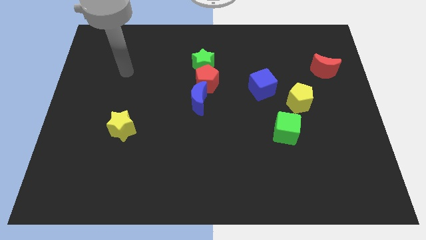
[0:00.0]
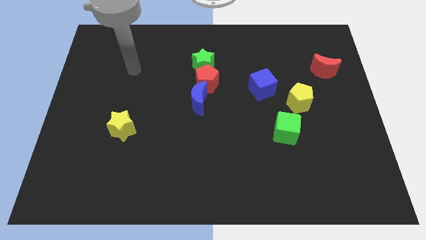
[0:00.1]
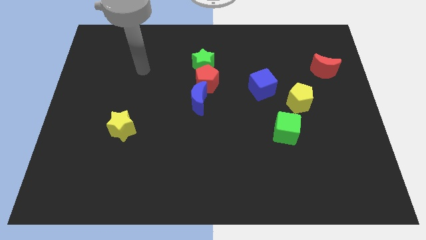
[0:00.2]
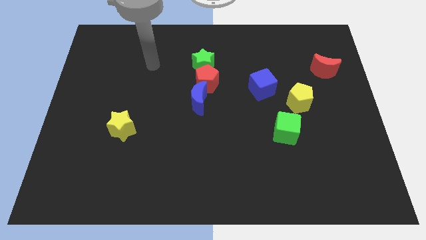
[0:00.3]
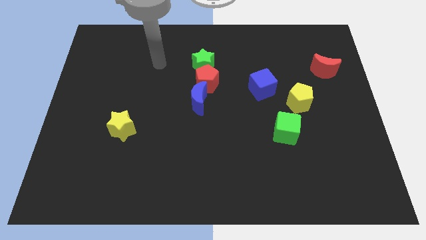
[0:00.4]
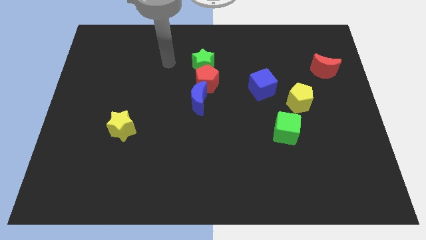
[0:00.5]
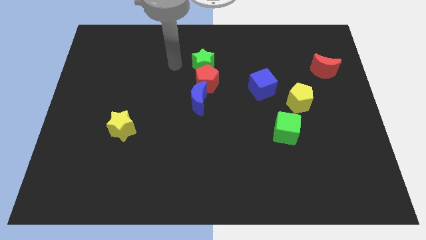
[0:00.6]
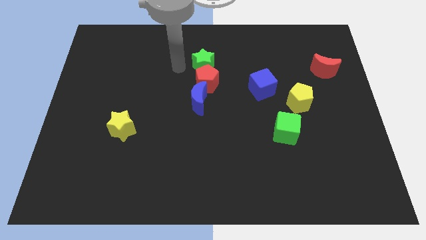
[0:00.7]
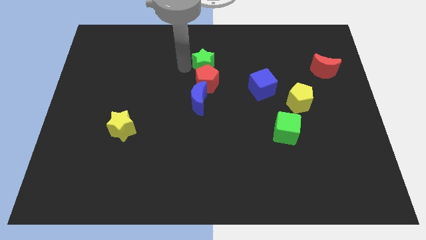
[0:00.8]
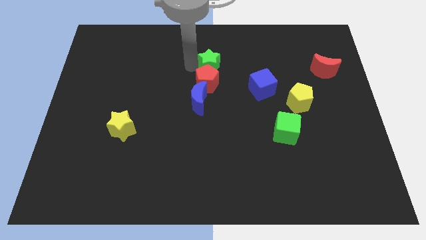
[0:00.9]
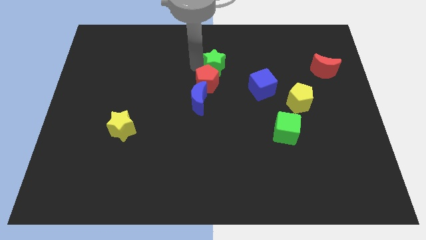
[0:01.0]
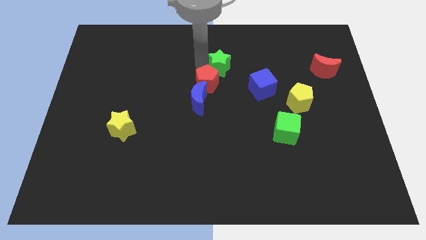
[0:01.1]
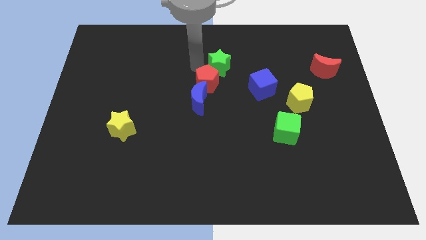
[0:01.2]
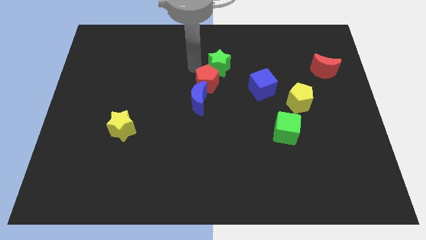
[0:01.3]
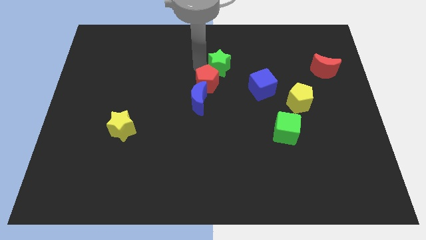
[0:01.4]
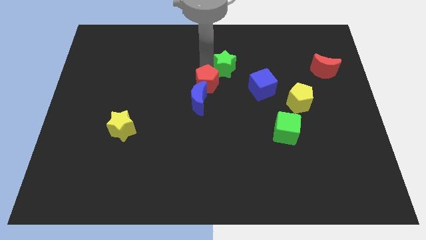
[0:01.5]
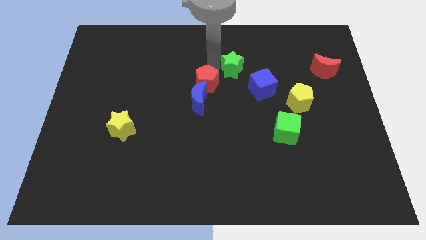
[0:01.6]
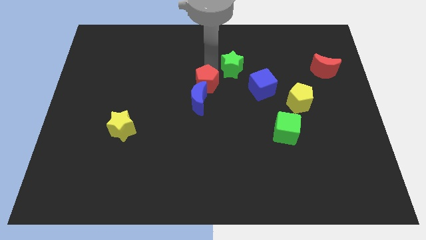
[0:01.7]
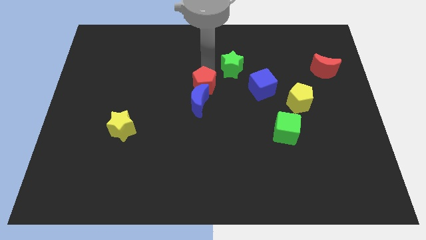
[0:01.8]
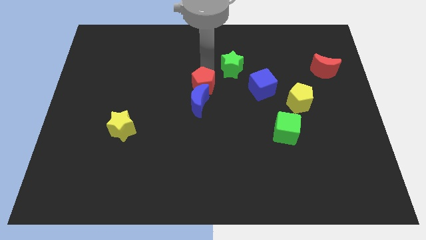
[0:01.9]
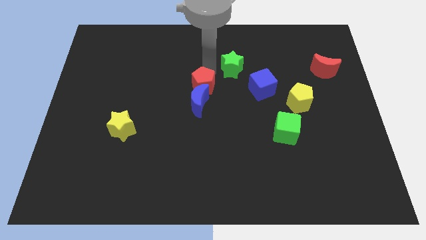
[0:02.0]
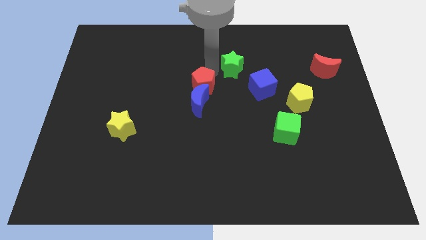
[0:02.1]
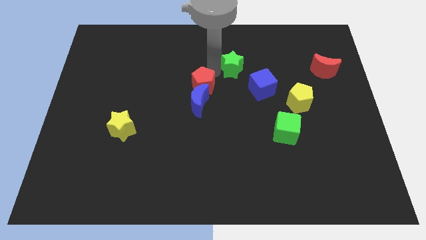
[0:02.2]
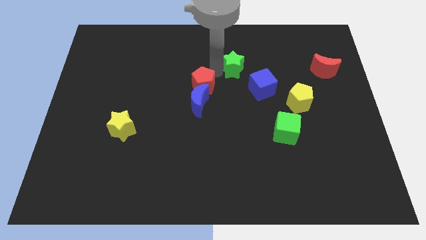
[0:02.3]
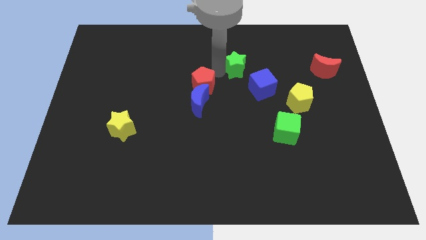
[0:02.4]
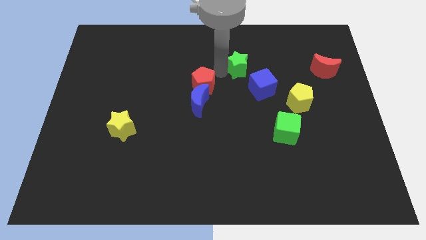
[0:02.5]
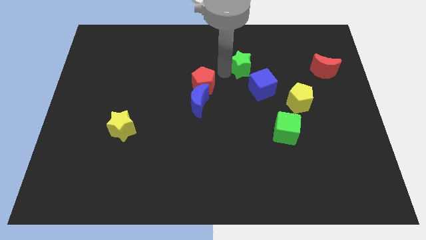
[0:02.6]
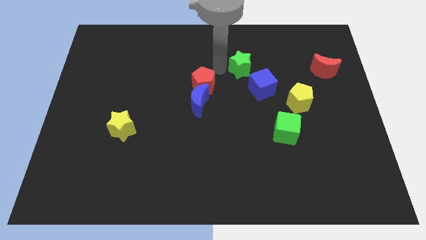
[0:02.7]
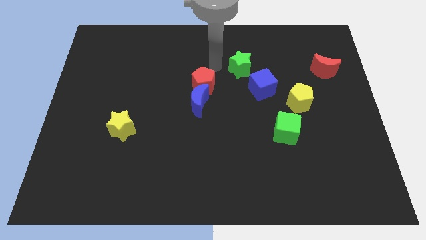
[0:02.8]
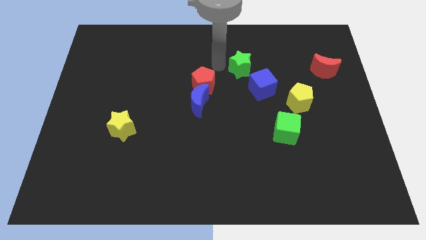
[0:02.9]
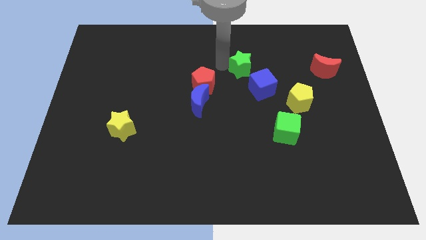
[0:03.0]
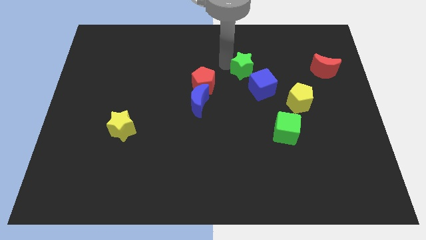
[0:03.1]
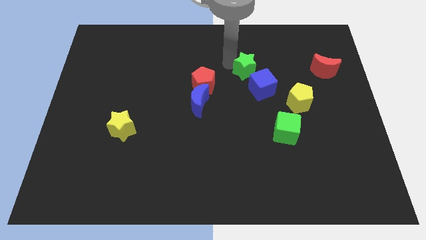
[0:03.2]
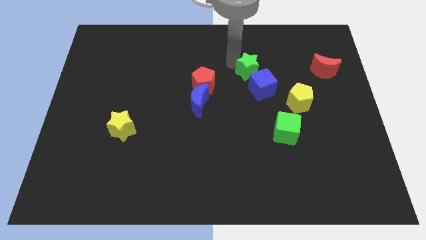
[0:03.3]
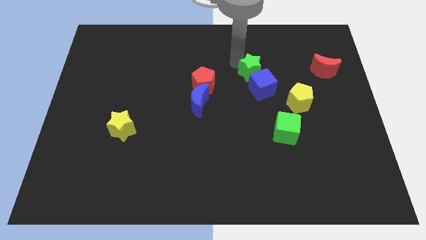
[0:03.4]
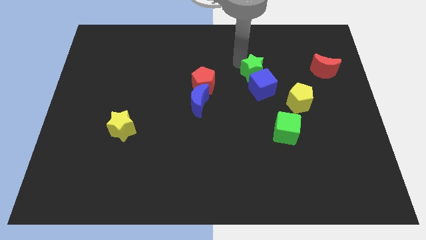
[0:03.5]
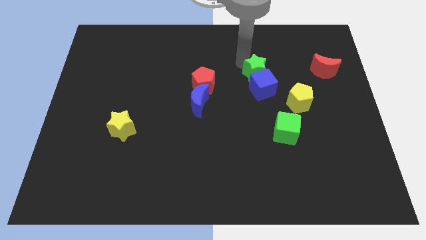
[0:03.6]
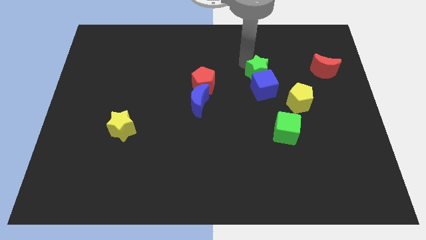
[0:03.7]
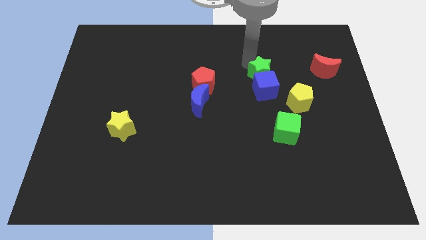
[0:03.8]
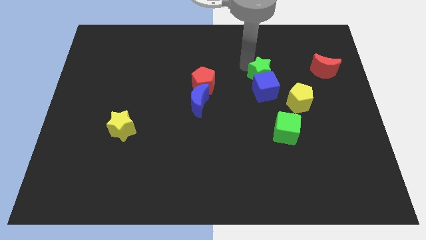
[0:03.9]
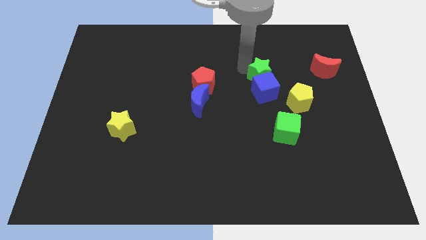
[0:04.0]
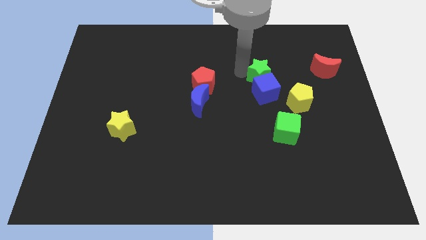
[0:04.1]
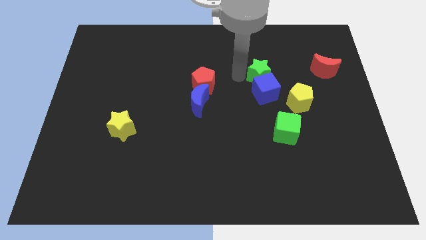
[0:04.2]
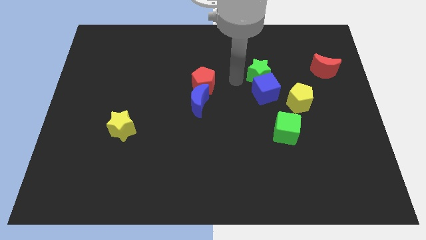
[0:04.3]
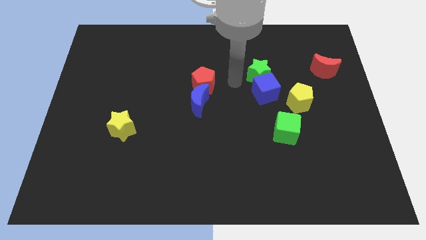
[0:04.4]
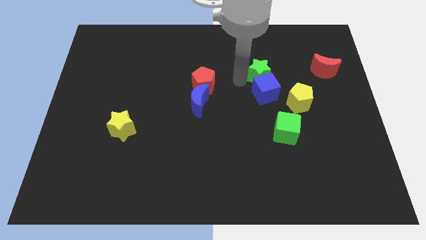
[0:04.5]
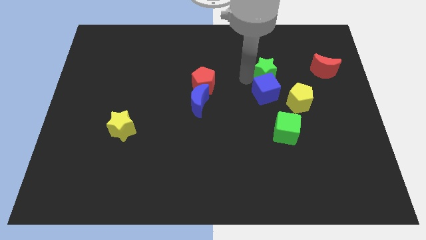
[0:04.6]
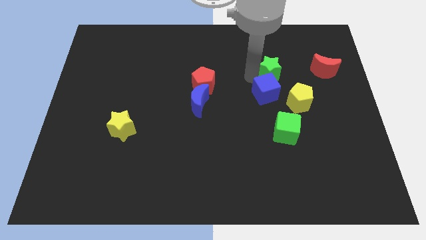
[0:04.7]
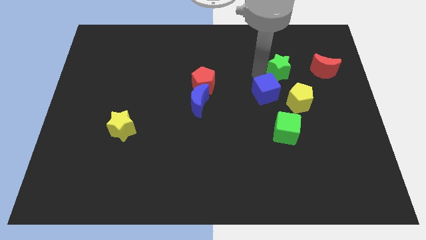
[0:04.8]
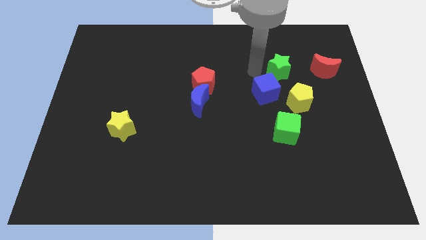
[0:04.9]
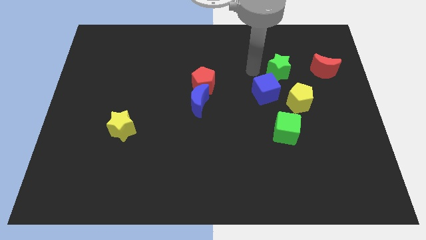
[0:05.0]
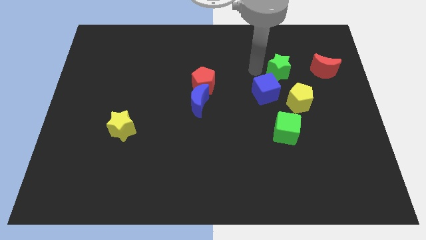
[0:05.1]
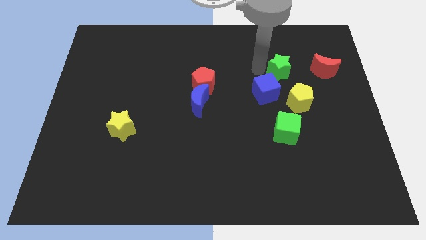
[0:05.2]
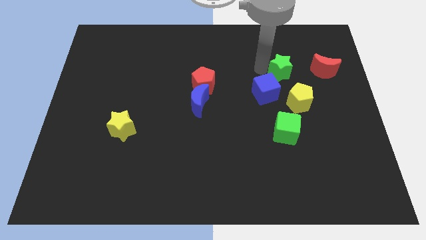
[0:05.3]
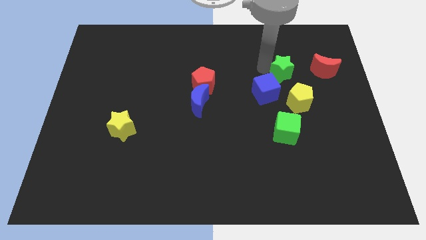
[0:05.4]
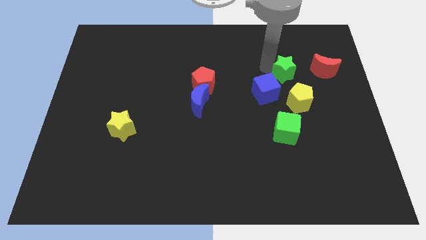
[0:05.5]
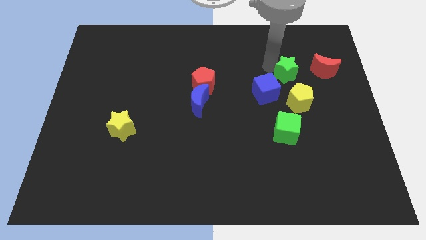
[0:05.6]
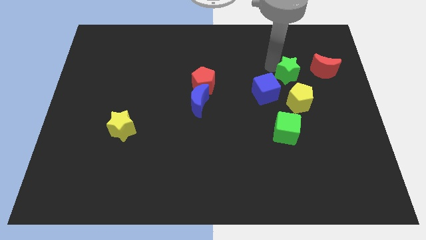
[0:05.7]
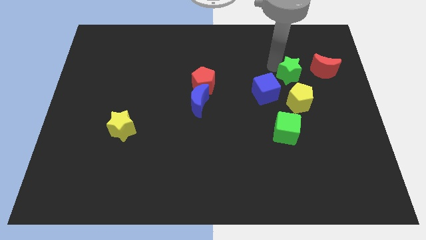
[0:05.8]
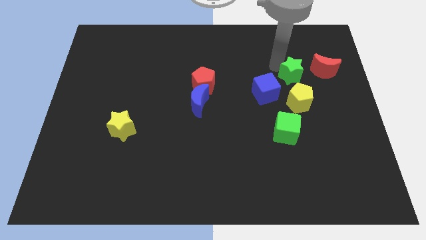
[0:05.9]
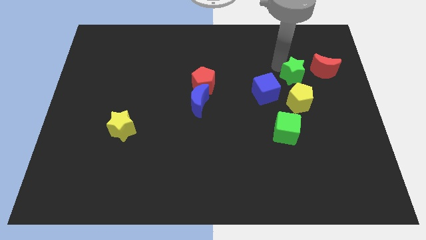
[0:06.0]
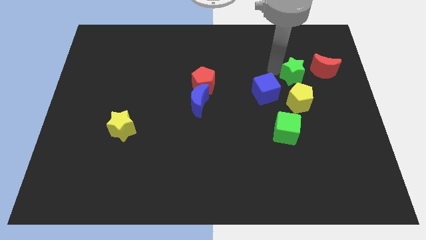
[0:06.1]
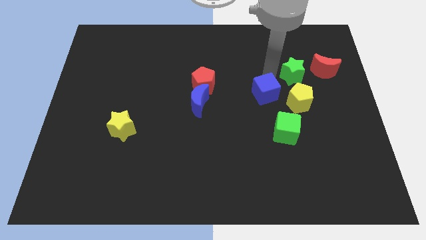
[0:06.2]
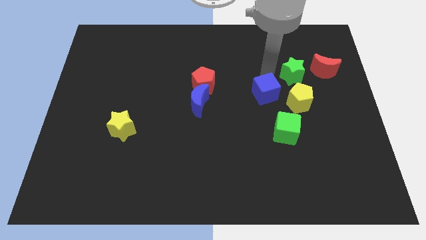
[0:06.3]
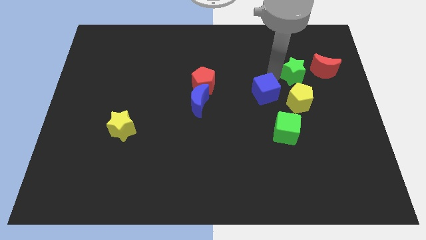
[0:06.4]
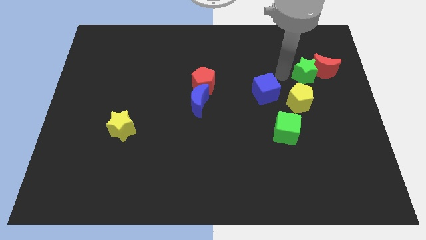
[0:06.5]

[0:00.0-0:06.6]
put the green star close to the red moon

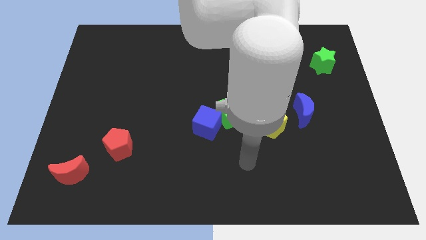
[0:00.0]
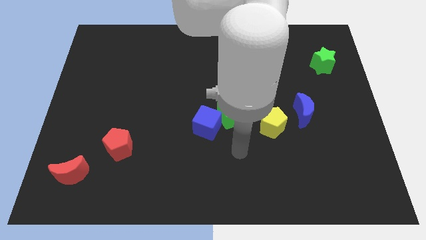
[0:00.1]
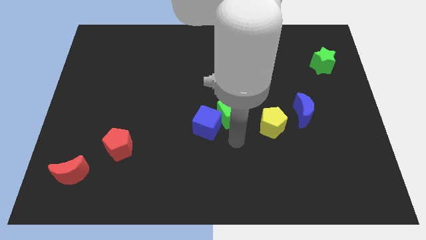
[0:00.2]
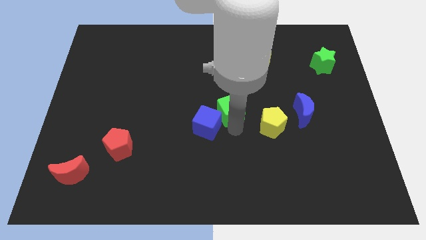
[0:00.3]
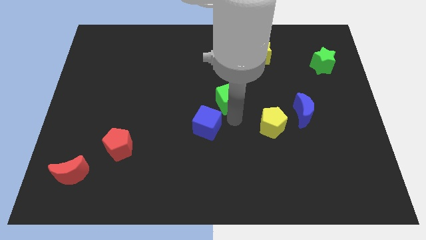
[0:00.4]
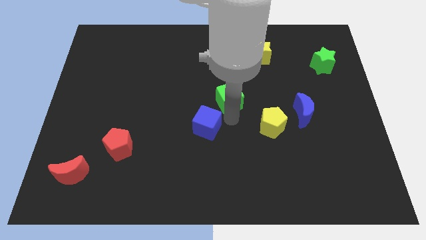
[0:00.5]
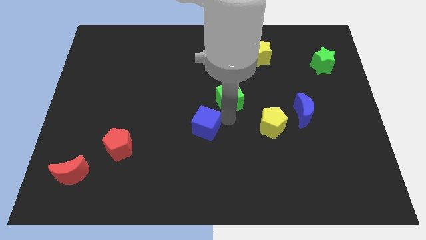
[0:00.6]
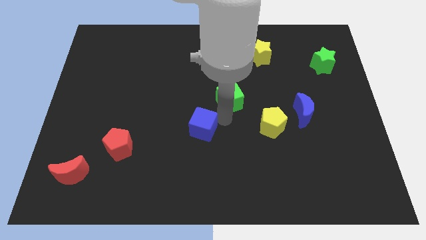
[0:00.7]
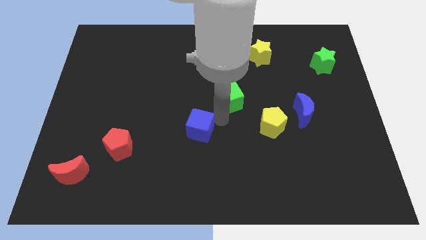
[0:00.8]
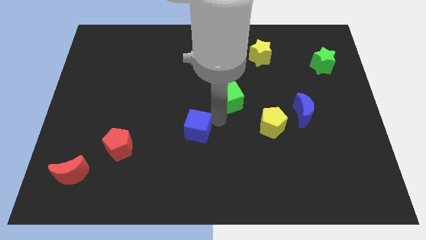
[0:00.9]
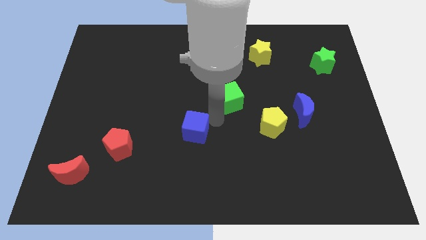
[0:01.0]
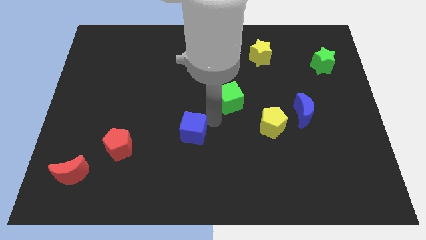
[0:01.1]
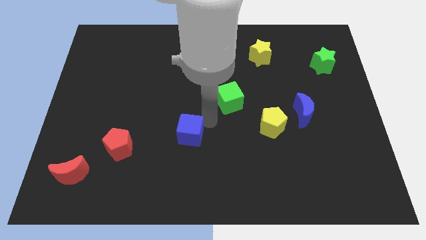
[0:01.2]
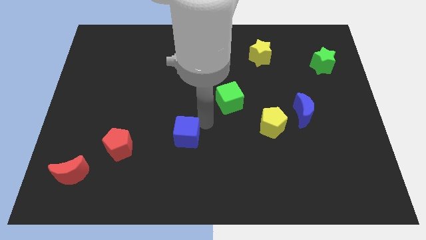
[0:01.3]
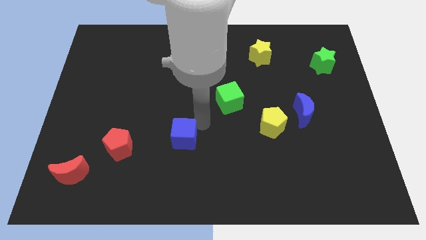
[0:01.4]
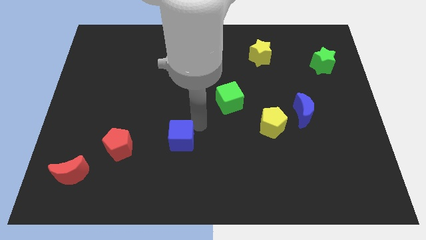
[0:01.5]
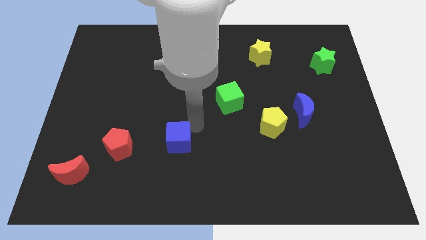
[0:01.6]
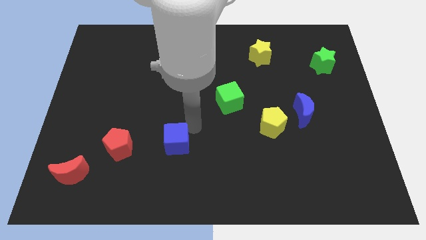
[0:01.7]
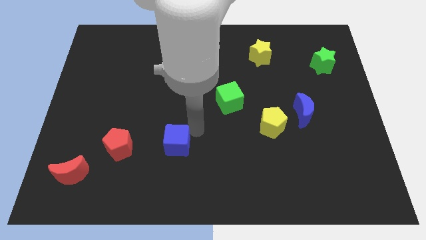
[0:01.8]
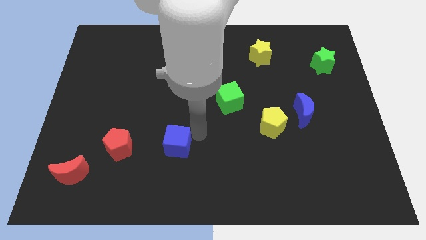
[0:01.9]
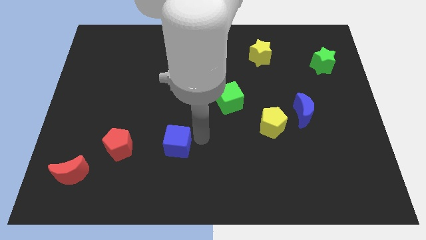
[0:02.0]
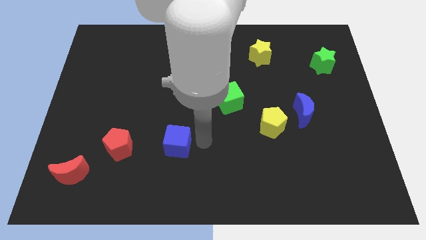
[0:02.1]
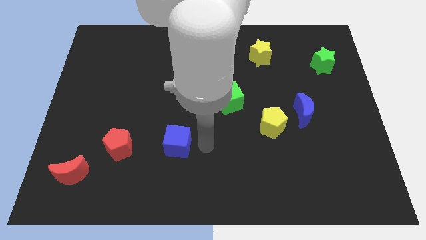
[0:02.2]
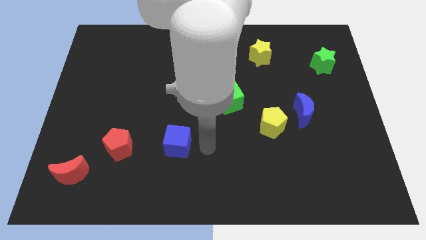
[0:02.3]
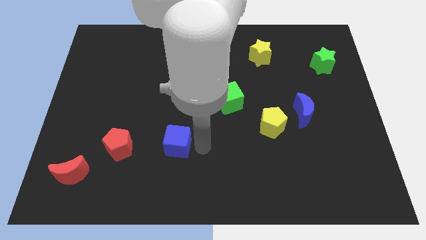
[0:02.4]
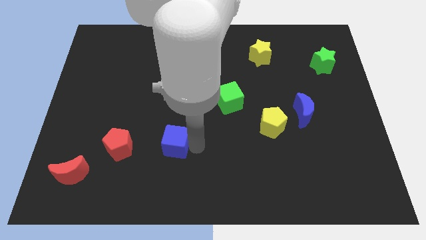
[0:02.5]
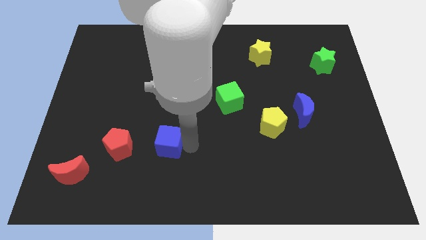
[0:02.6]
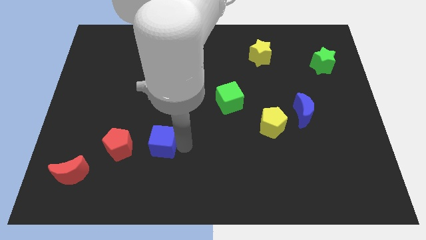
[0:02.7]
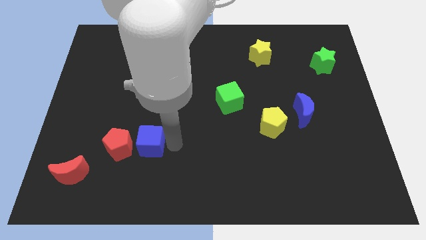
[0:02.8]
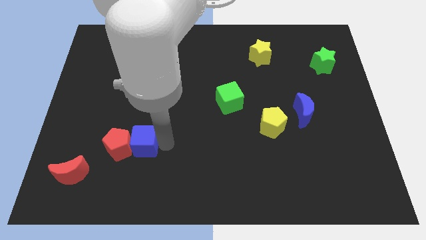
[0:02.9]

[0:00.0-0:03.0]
slide the blue cube close to the red pentagon
